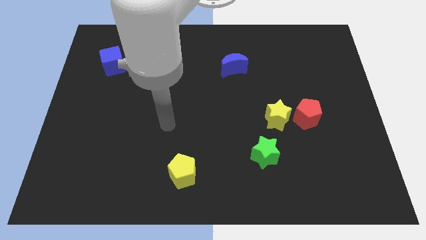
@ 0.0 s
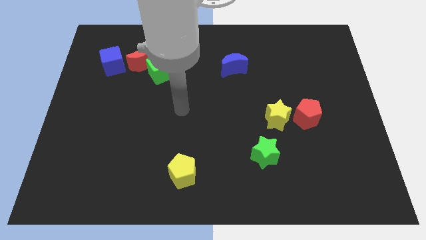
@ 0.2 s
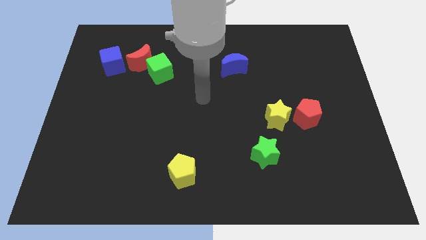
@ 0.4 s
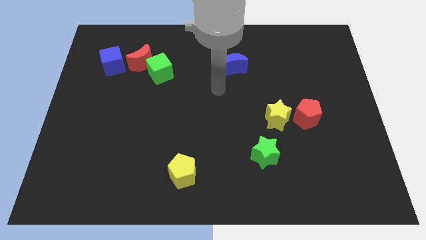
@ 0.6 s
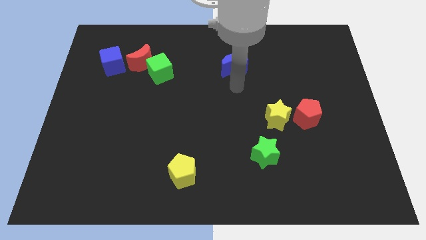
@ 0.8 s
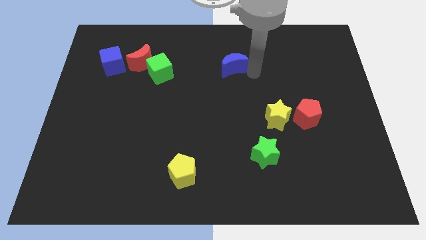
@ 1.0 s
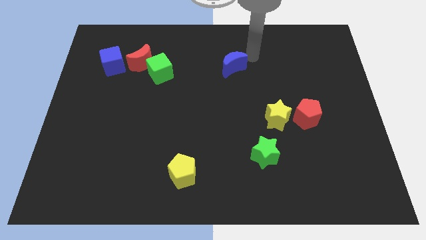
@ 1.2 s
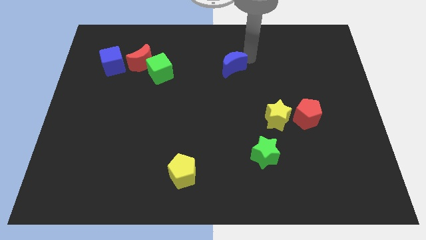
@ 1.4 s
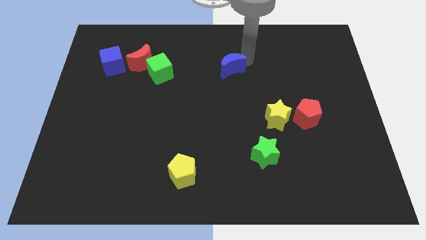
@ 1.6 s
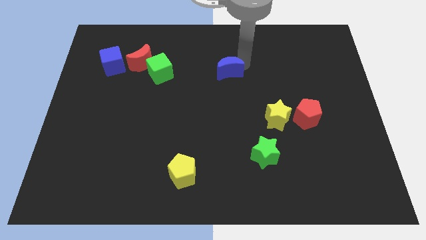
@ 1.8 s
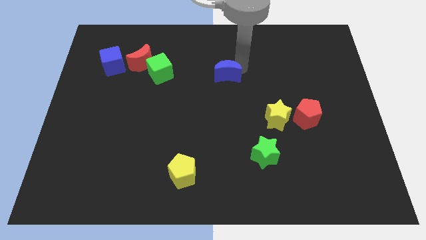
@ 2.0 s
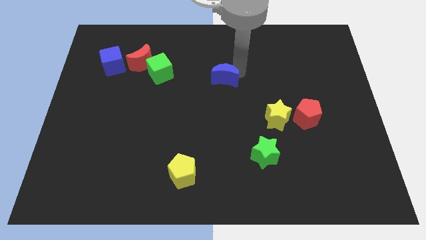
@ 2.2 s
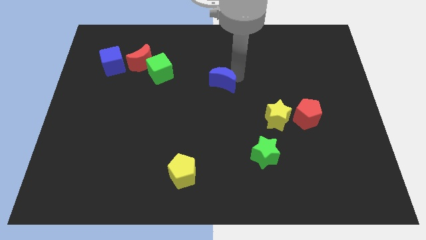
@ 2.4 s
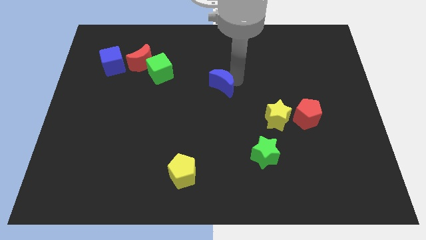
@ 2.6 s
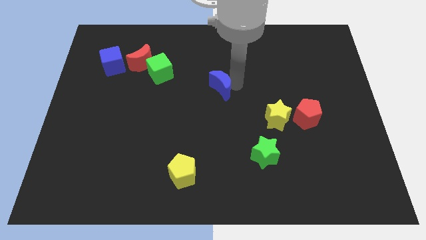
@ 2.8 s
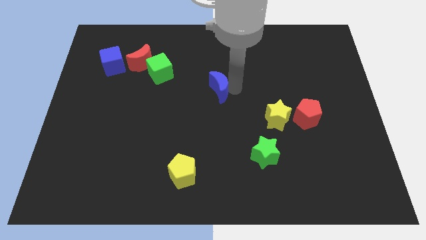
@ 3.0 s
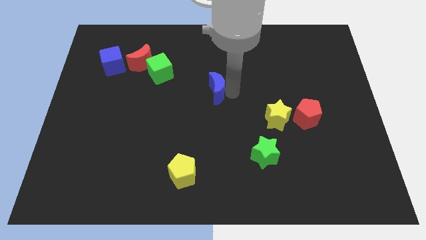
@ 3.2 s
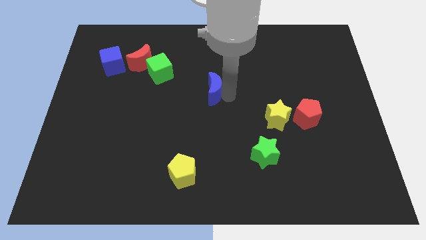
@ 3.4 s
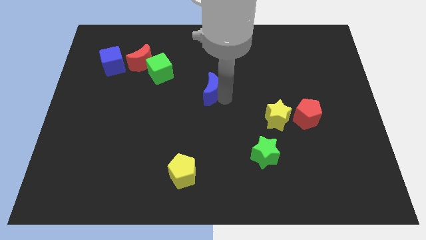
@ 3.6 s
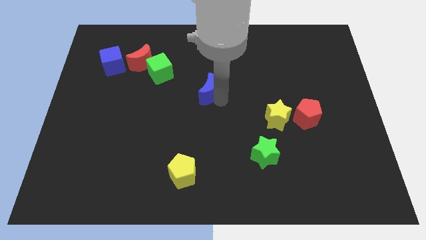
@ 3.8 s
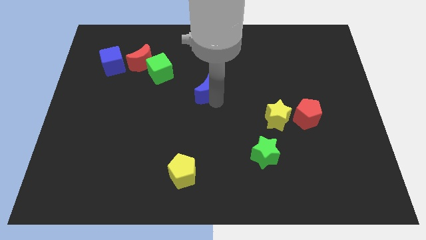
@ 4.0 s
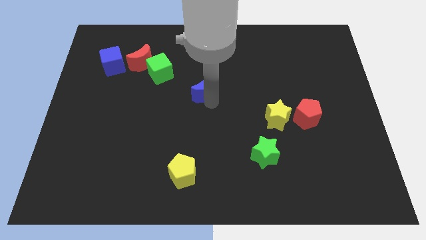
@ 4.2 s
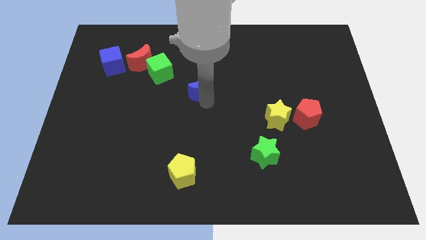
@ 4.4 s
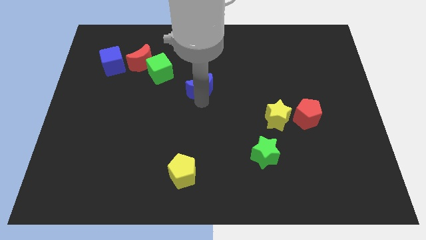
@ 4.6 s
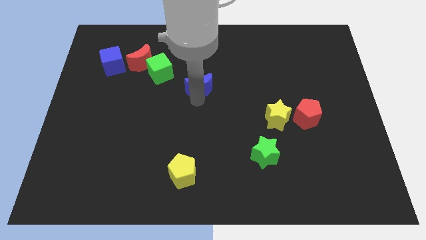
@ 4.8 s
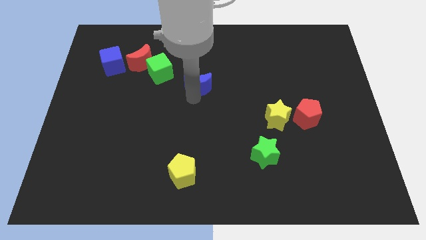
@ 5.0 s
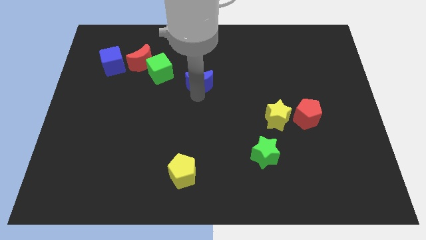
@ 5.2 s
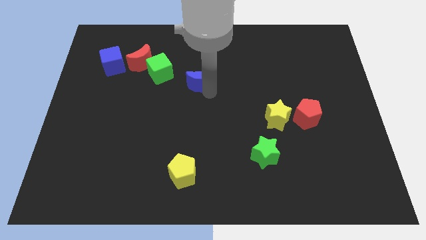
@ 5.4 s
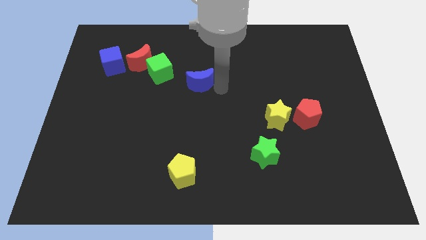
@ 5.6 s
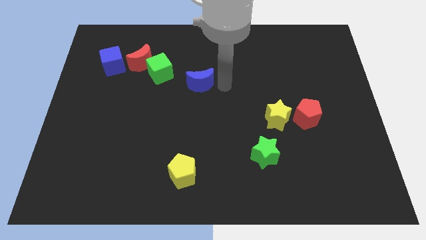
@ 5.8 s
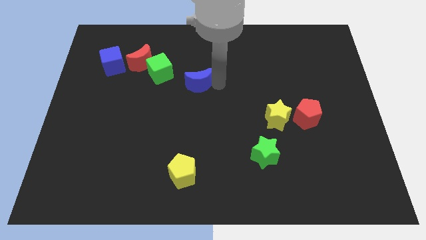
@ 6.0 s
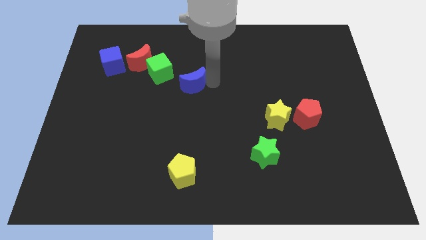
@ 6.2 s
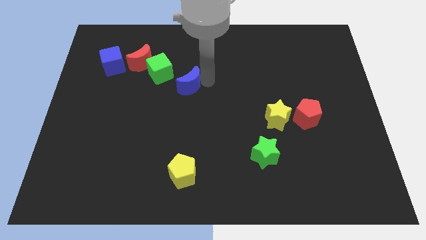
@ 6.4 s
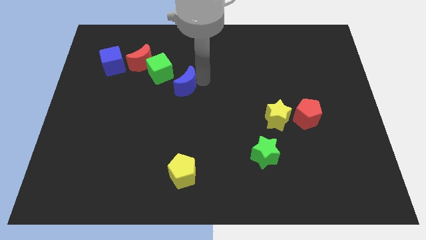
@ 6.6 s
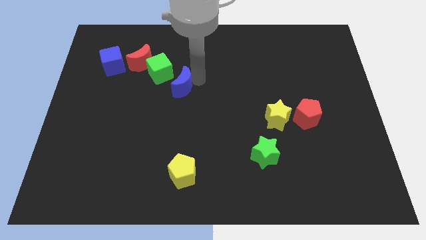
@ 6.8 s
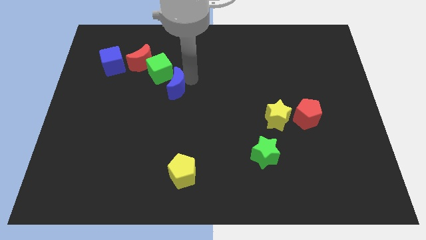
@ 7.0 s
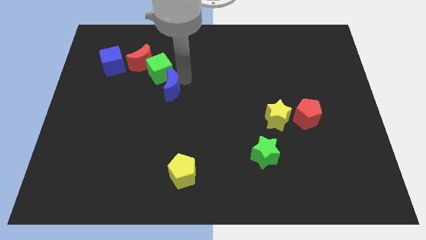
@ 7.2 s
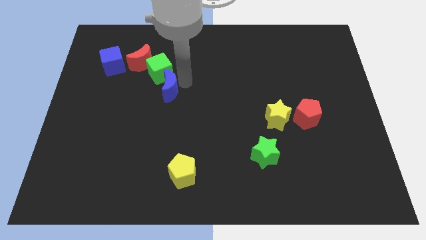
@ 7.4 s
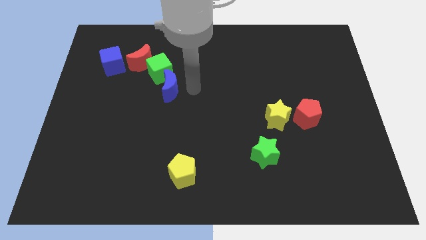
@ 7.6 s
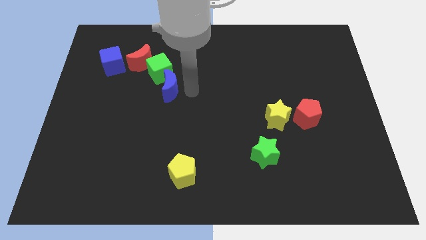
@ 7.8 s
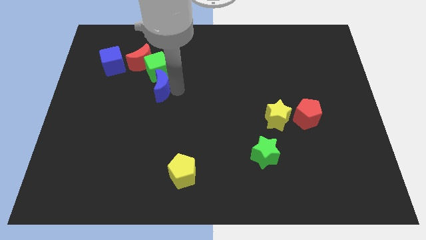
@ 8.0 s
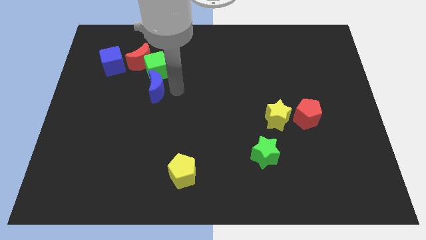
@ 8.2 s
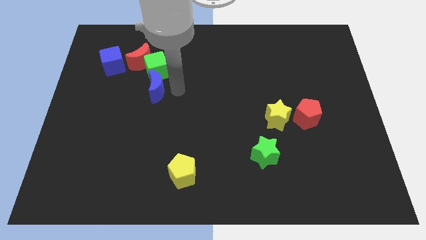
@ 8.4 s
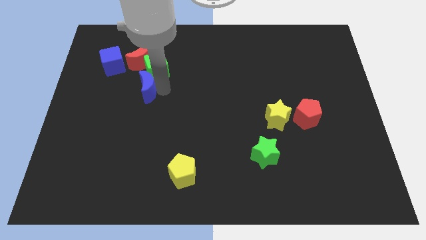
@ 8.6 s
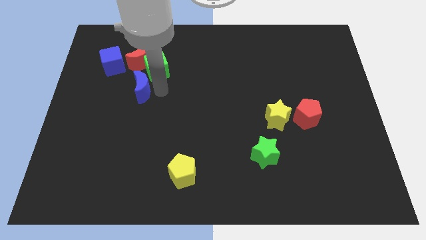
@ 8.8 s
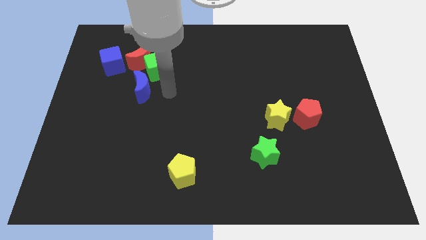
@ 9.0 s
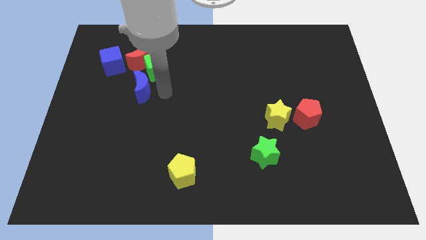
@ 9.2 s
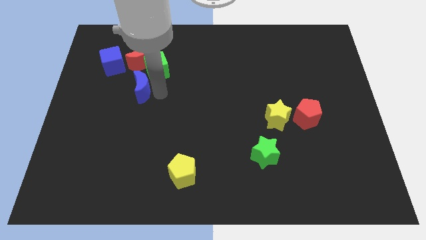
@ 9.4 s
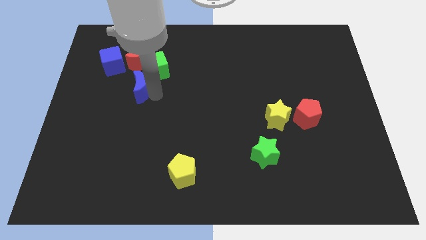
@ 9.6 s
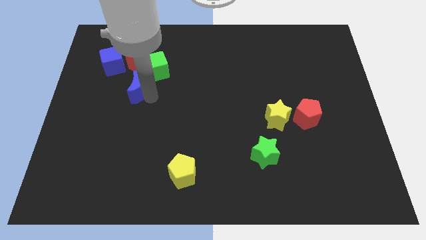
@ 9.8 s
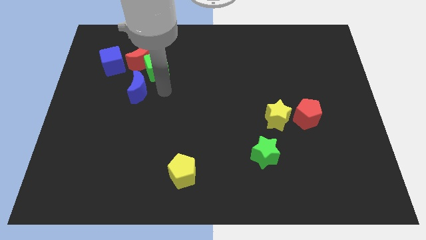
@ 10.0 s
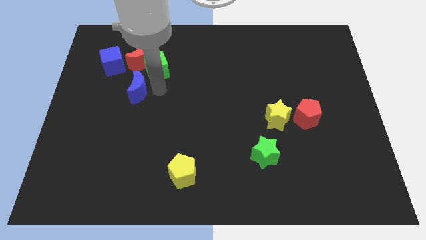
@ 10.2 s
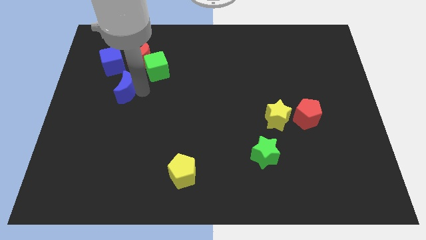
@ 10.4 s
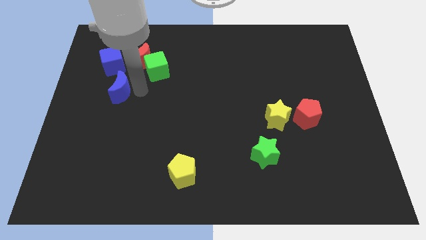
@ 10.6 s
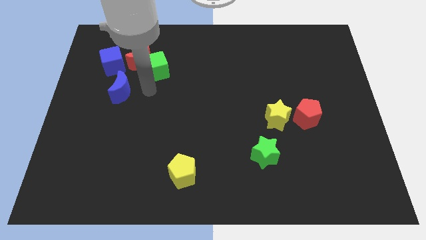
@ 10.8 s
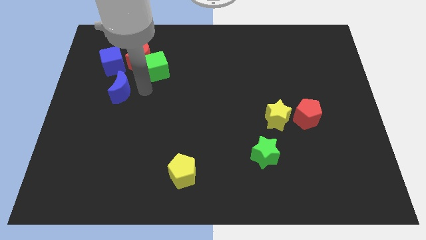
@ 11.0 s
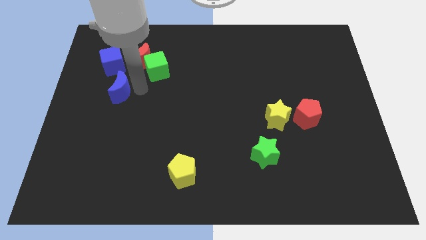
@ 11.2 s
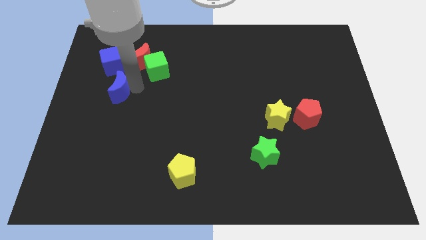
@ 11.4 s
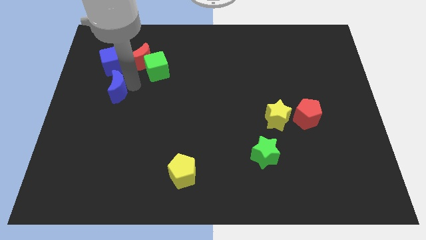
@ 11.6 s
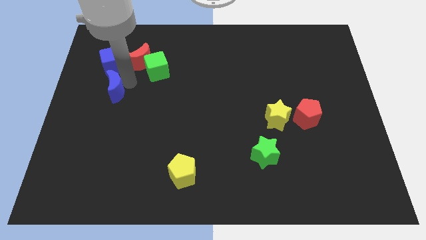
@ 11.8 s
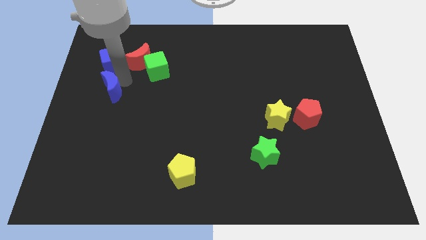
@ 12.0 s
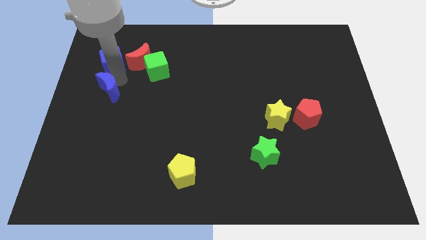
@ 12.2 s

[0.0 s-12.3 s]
push the blue moon to the left side of the board

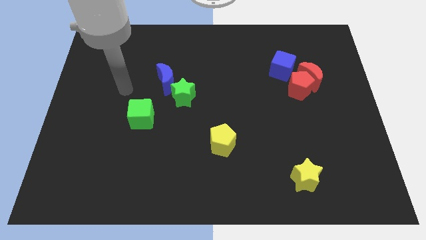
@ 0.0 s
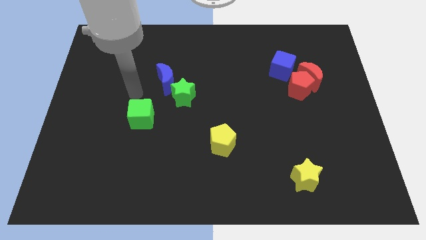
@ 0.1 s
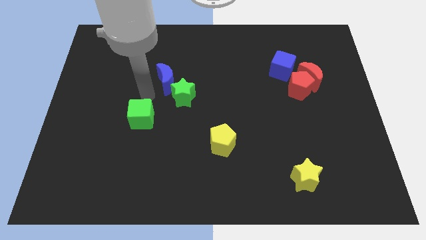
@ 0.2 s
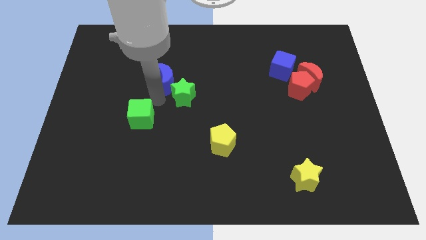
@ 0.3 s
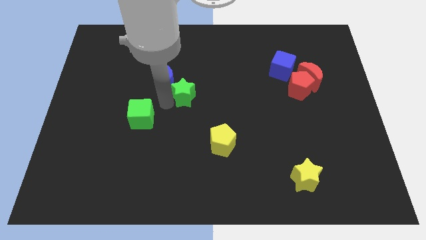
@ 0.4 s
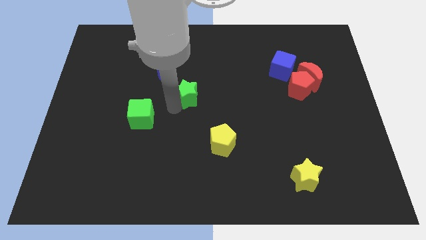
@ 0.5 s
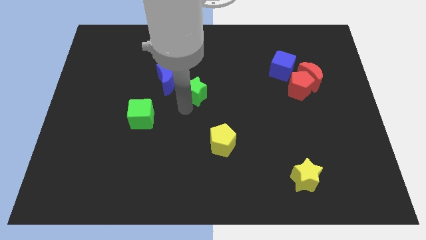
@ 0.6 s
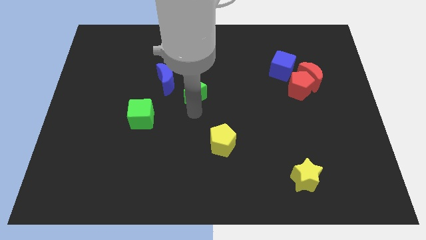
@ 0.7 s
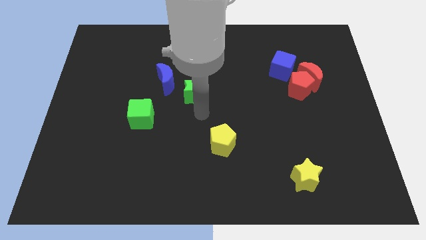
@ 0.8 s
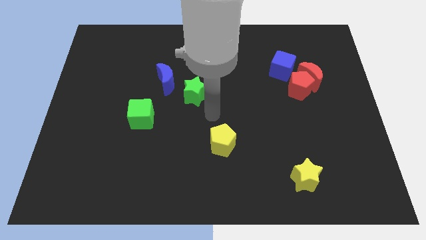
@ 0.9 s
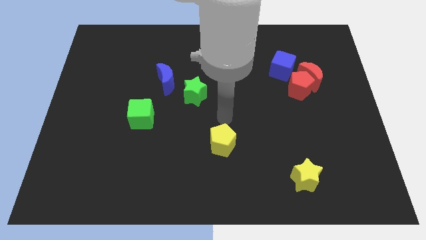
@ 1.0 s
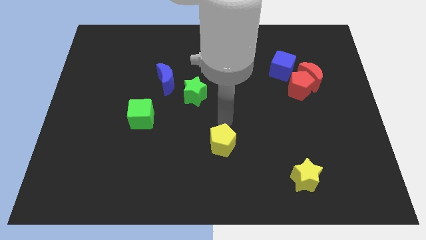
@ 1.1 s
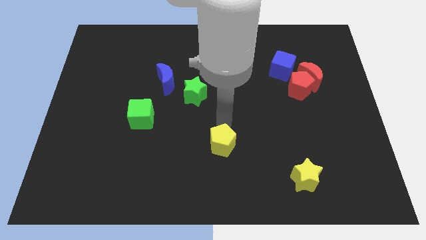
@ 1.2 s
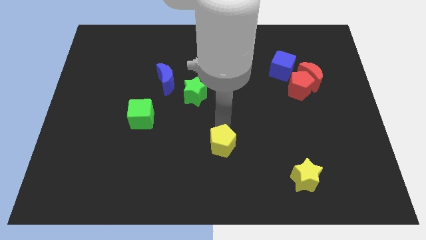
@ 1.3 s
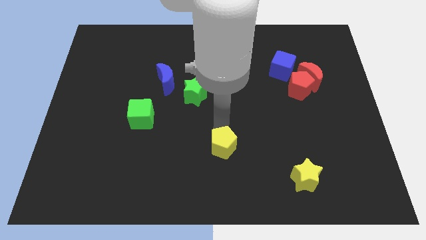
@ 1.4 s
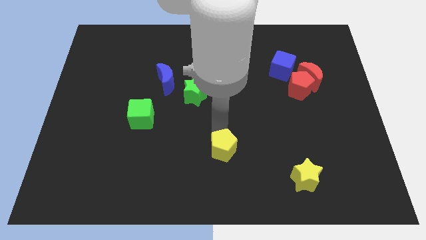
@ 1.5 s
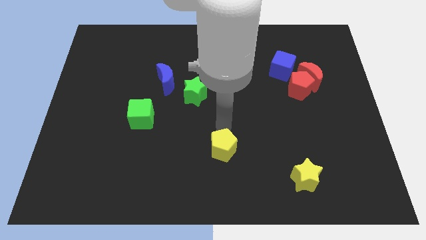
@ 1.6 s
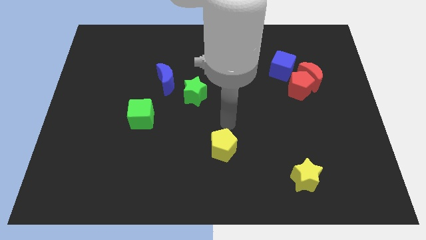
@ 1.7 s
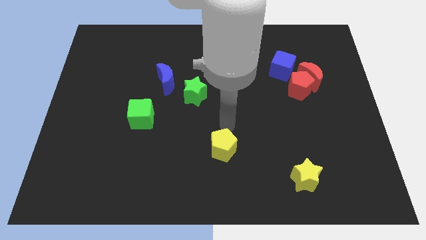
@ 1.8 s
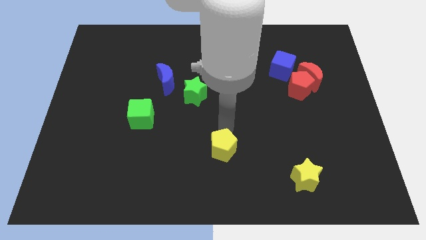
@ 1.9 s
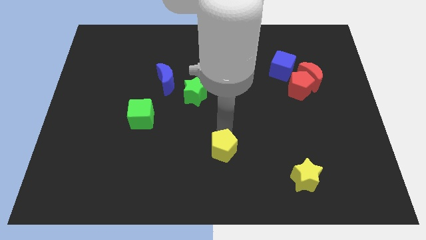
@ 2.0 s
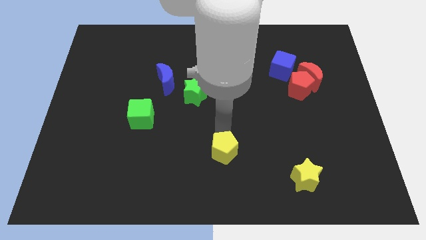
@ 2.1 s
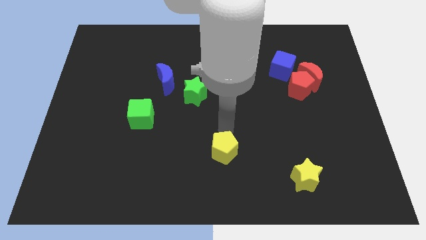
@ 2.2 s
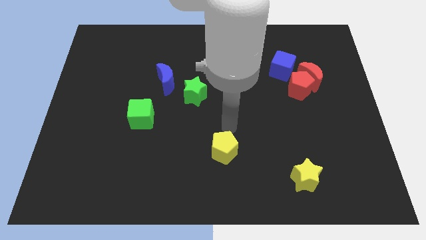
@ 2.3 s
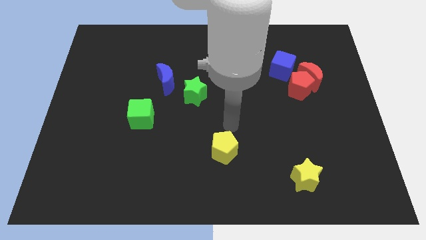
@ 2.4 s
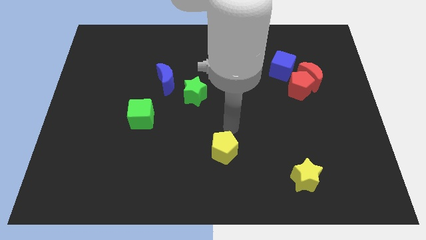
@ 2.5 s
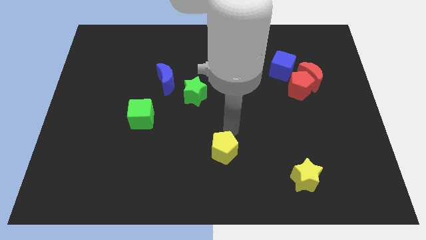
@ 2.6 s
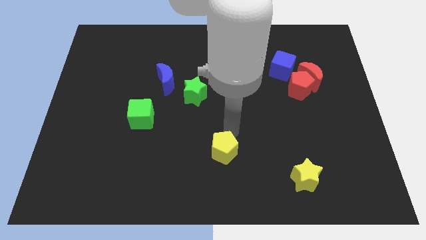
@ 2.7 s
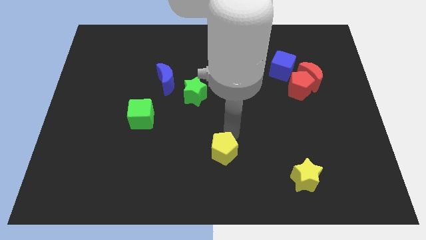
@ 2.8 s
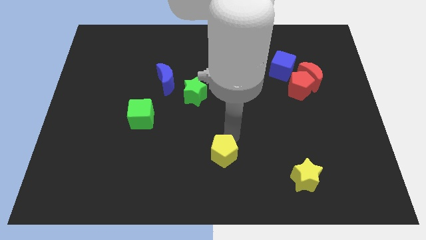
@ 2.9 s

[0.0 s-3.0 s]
push the yellow pentagon to the bottom side
